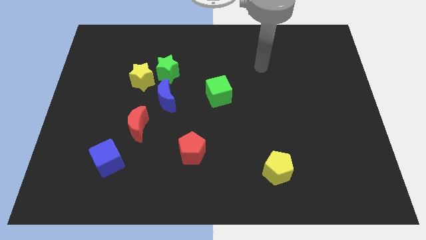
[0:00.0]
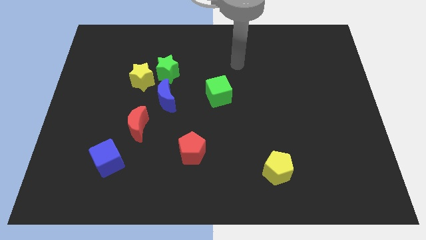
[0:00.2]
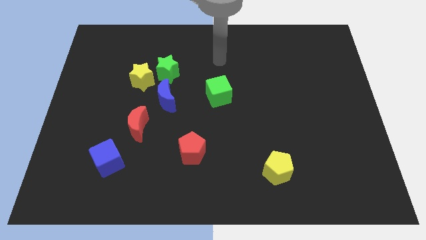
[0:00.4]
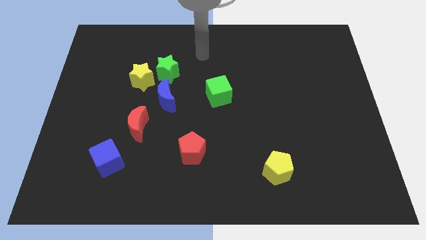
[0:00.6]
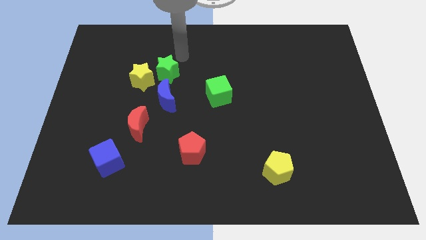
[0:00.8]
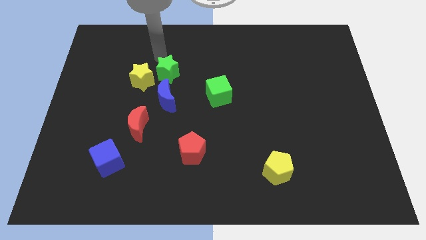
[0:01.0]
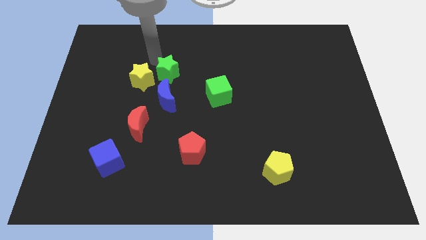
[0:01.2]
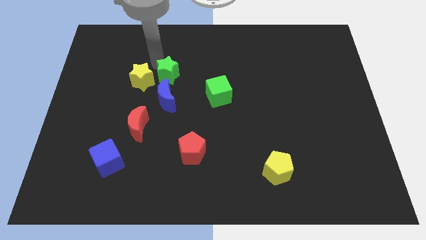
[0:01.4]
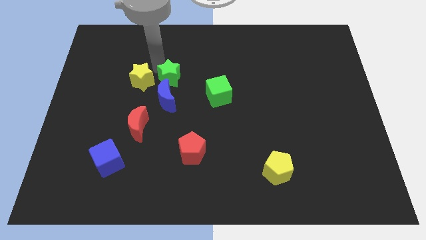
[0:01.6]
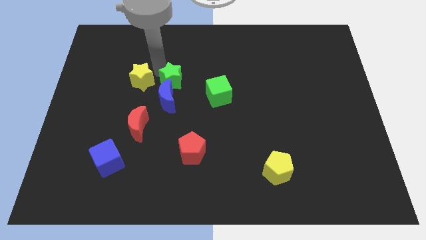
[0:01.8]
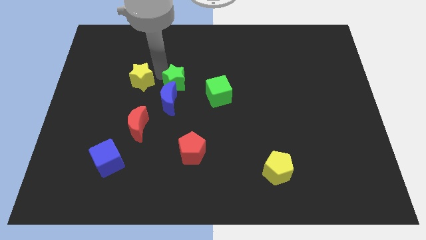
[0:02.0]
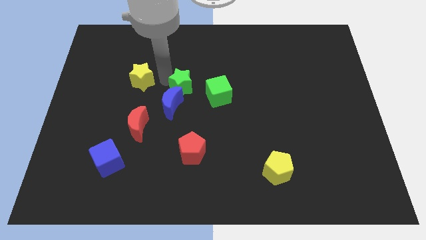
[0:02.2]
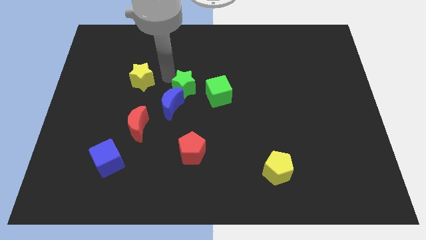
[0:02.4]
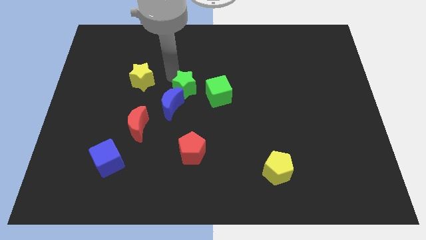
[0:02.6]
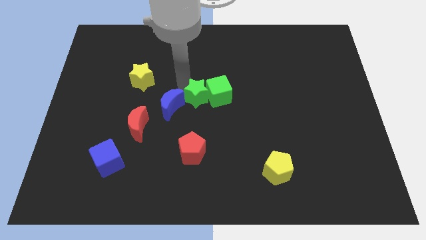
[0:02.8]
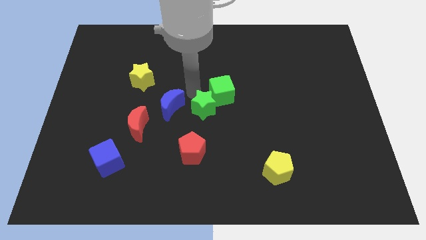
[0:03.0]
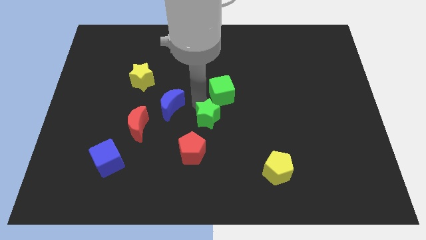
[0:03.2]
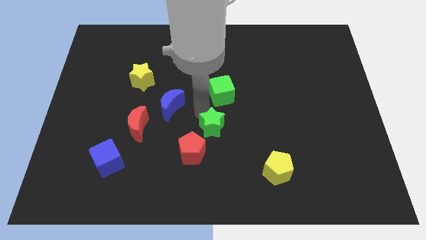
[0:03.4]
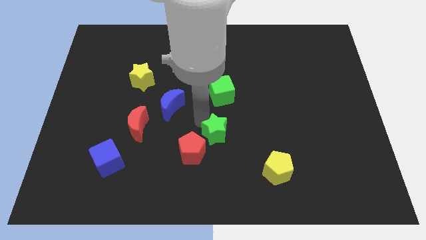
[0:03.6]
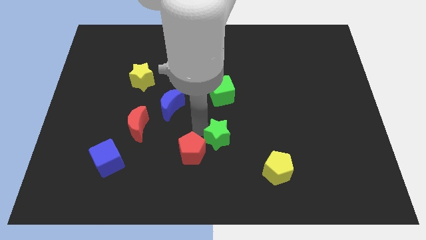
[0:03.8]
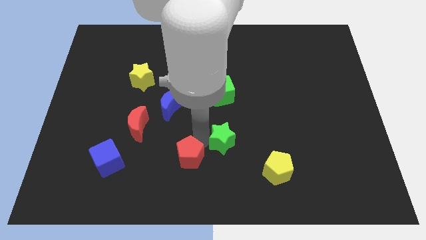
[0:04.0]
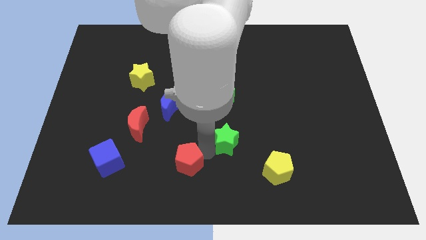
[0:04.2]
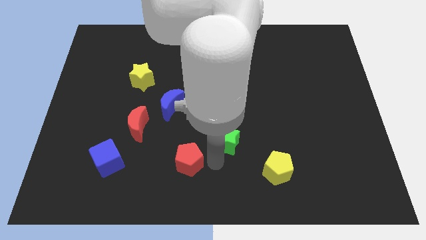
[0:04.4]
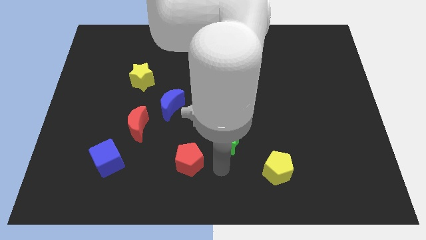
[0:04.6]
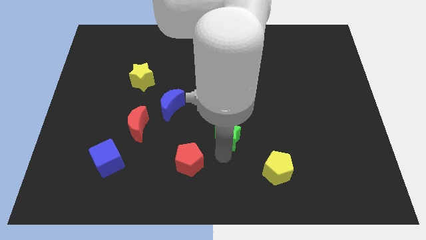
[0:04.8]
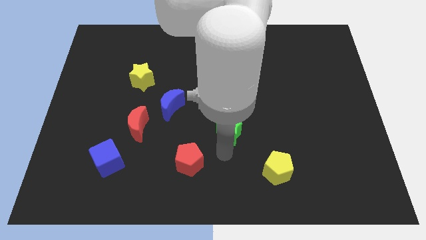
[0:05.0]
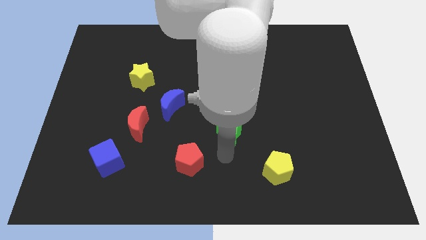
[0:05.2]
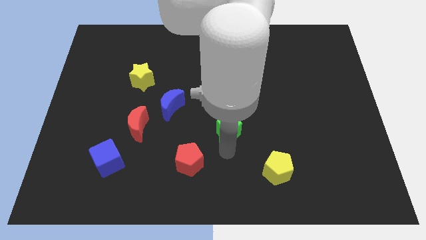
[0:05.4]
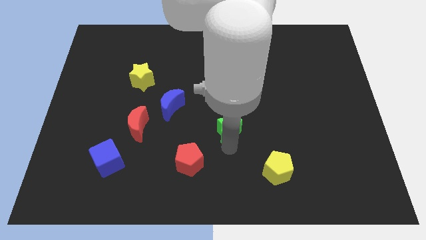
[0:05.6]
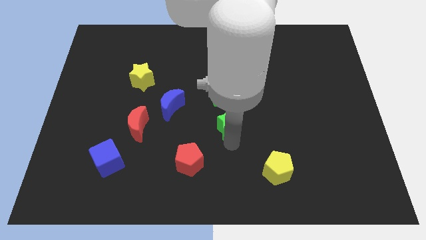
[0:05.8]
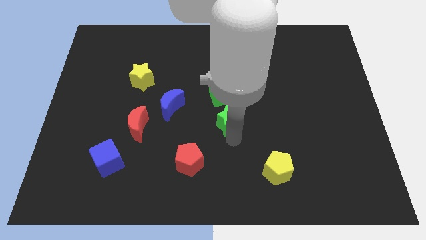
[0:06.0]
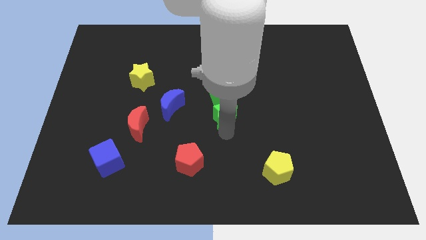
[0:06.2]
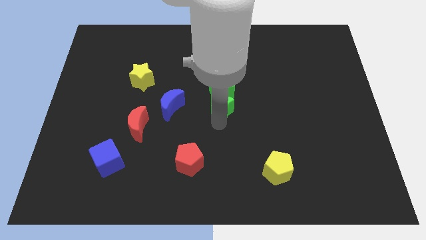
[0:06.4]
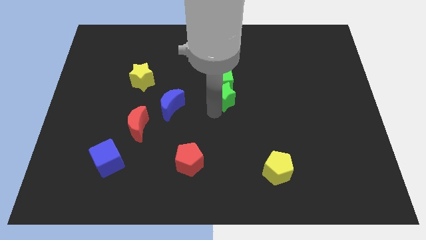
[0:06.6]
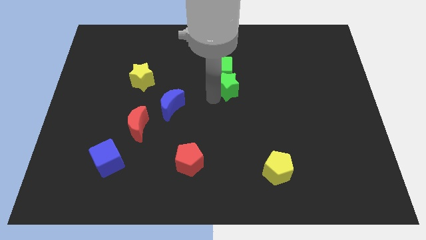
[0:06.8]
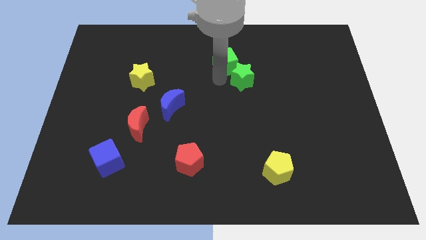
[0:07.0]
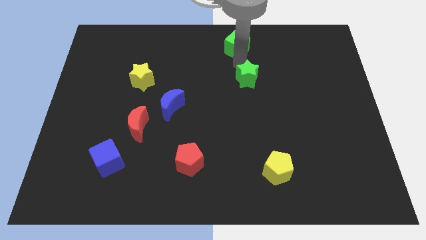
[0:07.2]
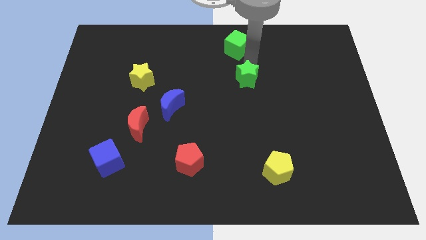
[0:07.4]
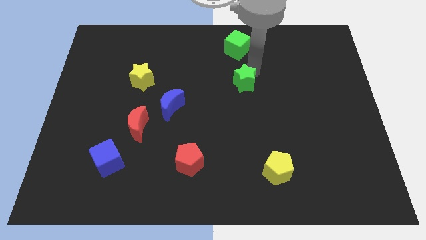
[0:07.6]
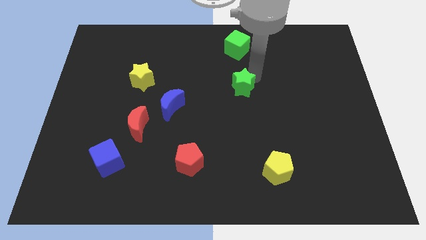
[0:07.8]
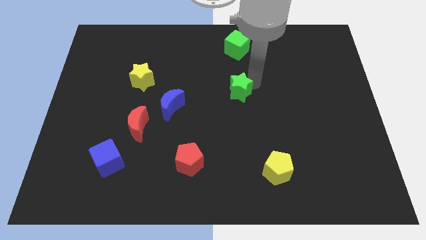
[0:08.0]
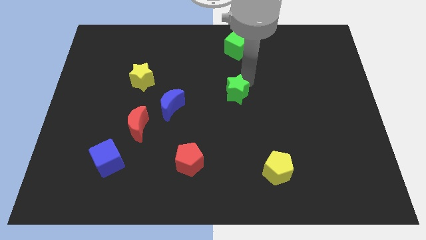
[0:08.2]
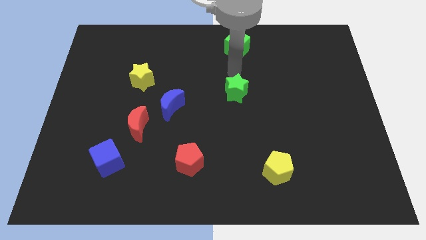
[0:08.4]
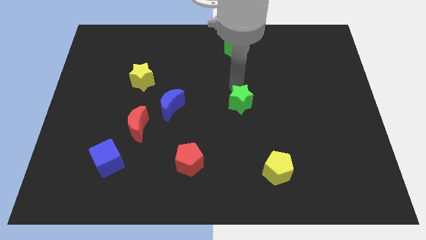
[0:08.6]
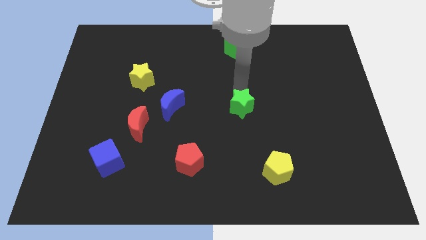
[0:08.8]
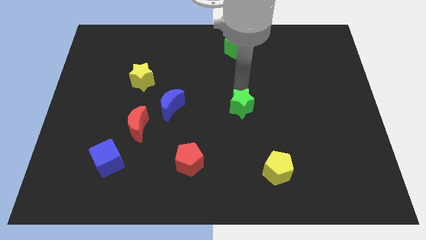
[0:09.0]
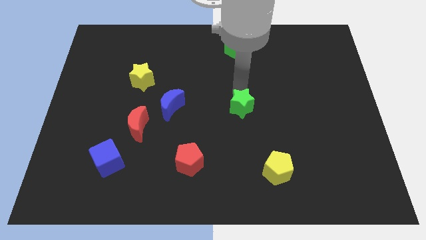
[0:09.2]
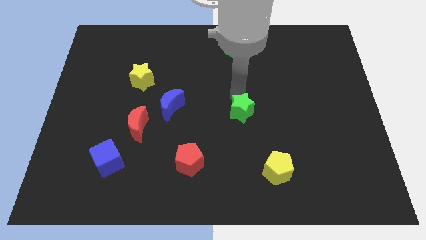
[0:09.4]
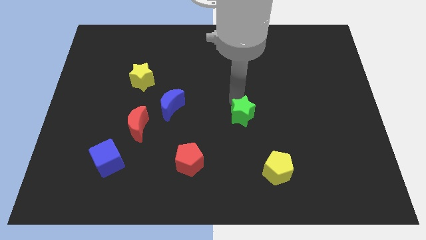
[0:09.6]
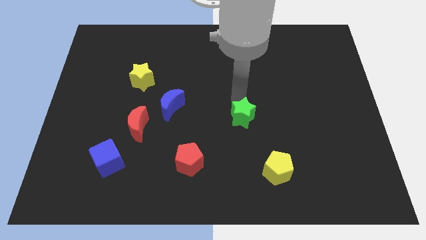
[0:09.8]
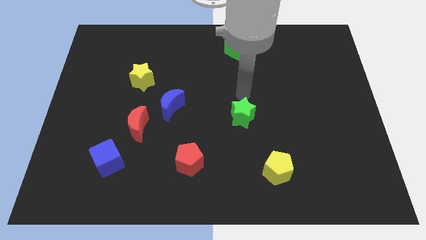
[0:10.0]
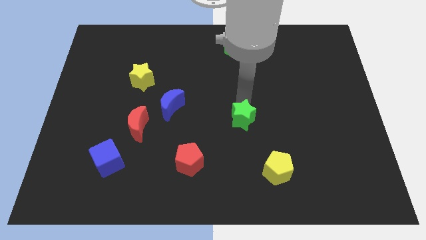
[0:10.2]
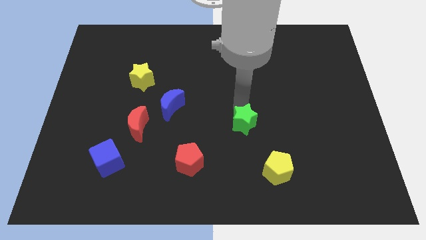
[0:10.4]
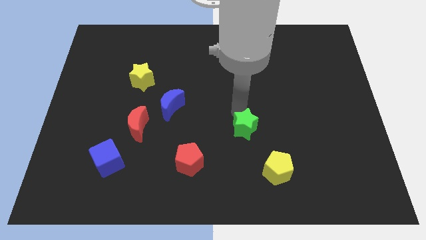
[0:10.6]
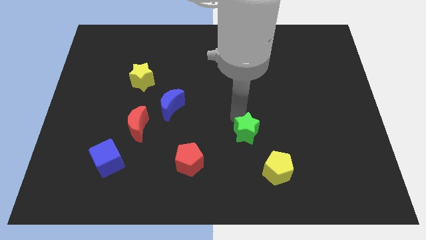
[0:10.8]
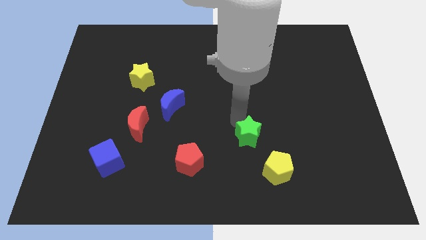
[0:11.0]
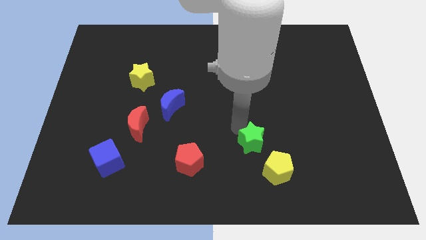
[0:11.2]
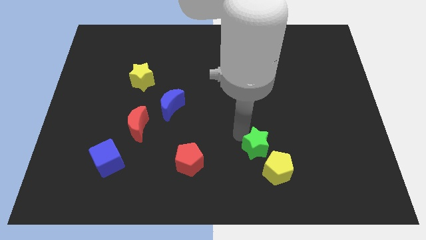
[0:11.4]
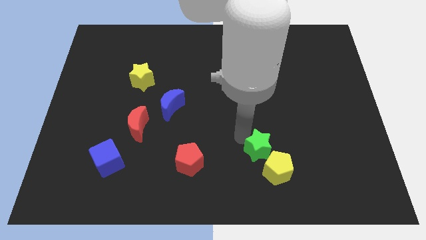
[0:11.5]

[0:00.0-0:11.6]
push the green star close to the yellow pentagon

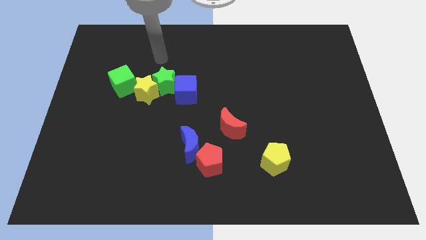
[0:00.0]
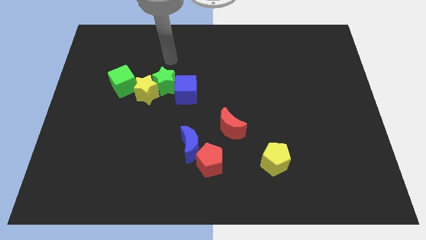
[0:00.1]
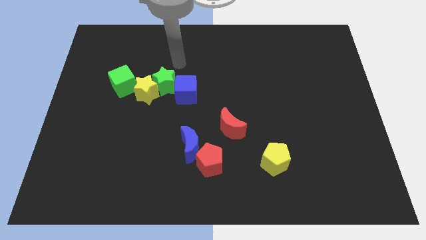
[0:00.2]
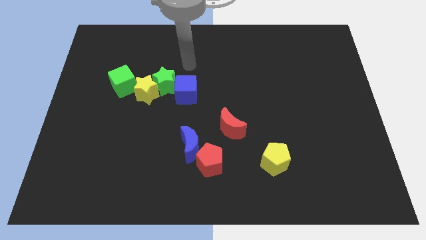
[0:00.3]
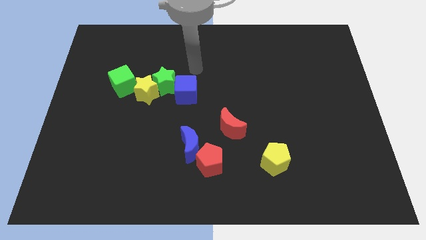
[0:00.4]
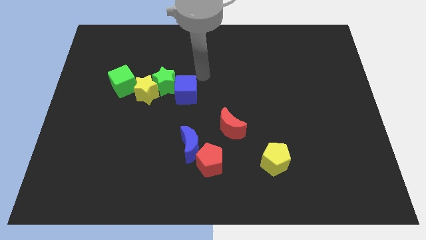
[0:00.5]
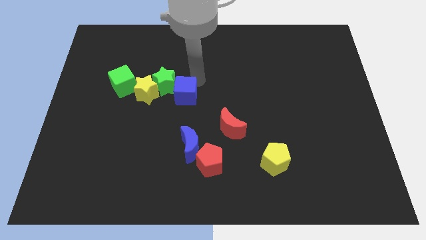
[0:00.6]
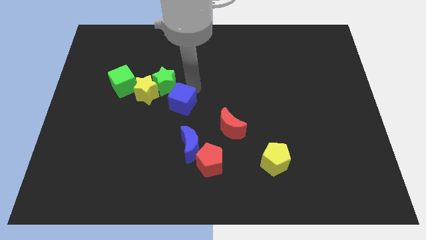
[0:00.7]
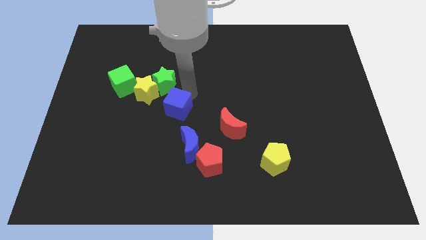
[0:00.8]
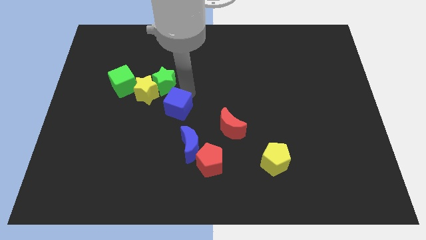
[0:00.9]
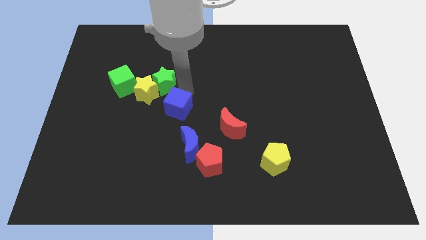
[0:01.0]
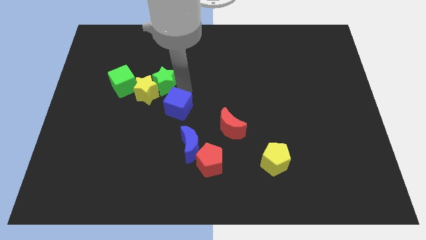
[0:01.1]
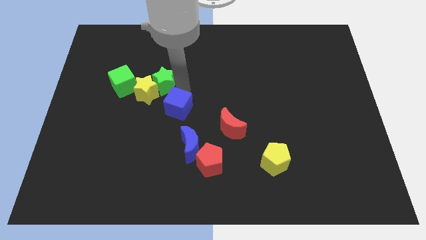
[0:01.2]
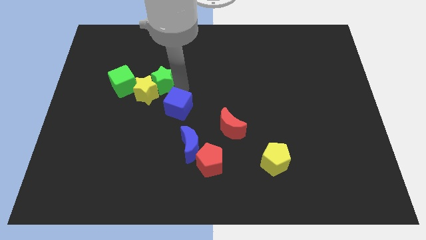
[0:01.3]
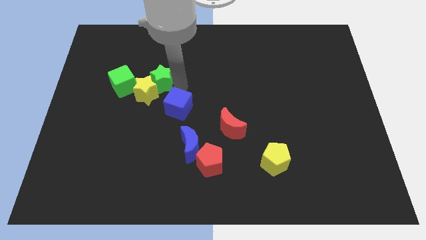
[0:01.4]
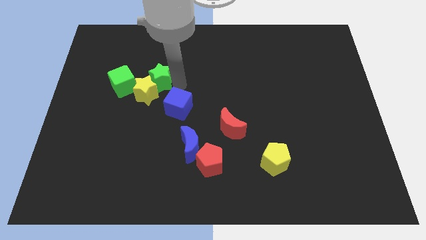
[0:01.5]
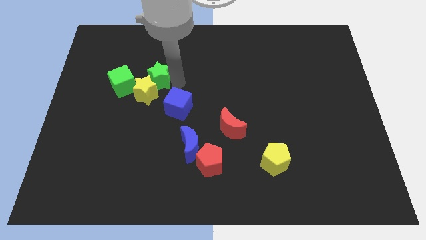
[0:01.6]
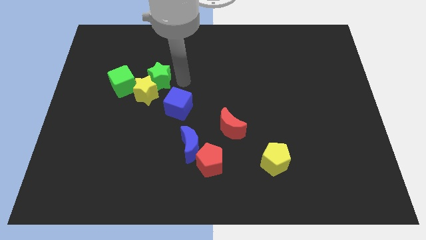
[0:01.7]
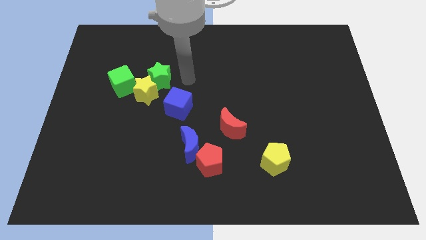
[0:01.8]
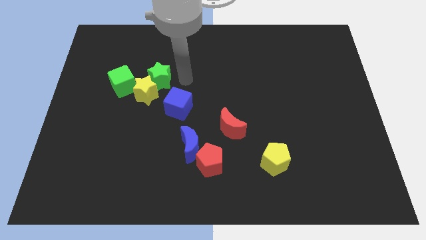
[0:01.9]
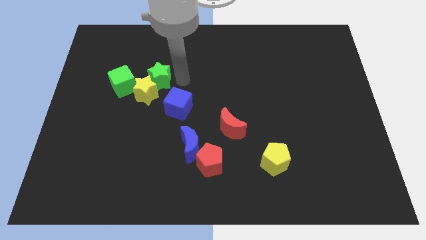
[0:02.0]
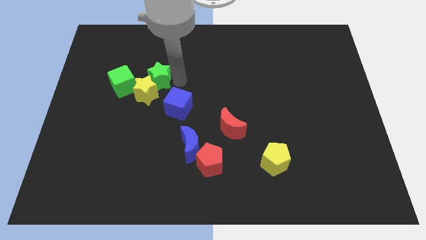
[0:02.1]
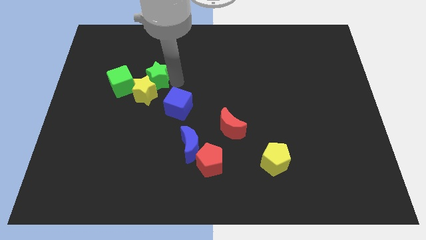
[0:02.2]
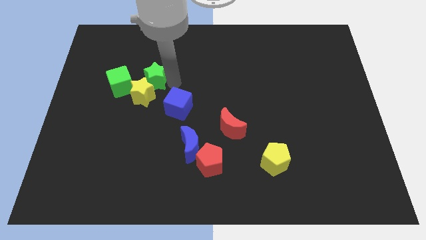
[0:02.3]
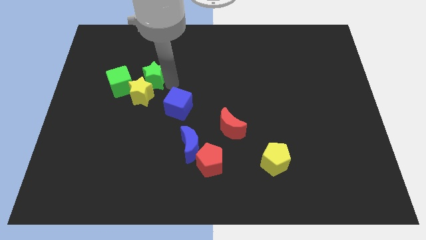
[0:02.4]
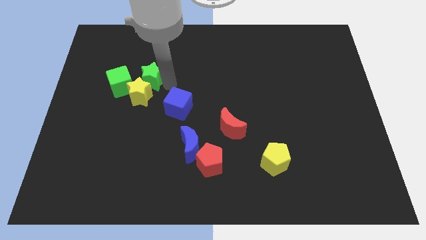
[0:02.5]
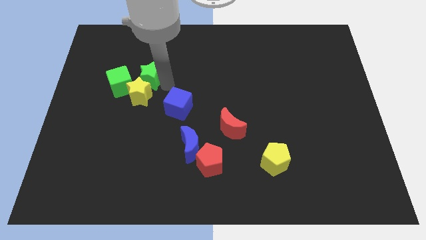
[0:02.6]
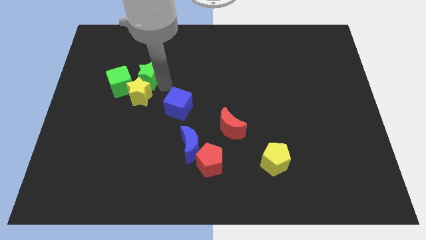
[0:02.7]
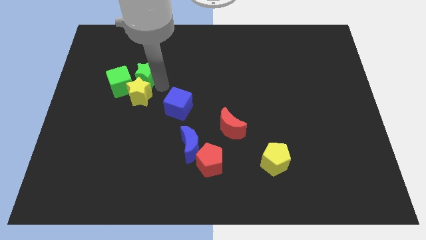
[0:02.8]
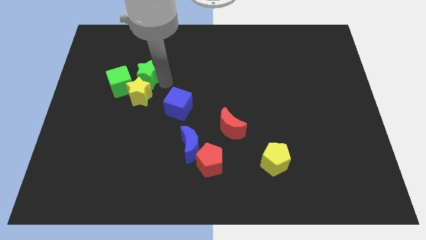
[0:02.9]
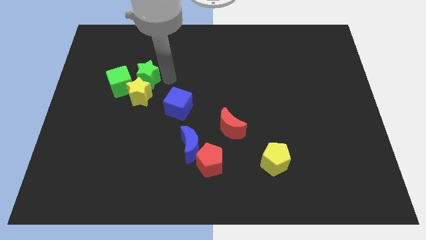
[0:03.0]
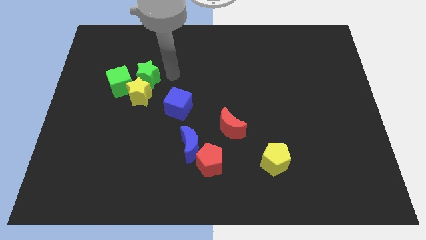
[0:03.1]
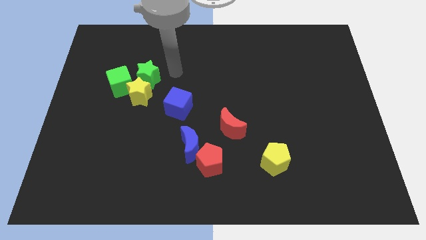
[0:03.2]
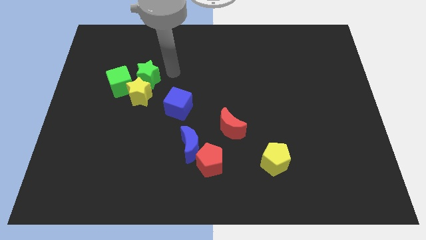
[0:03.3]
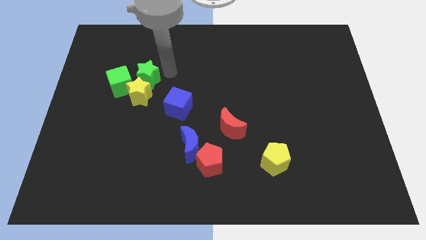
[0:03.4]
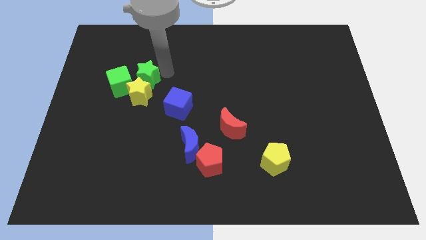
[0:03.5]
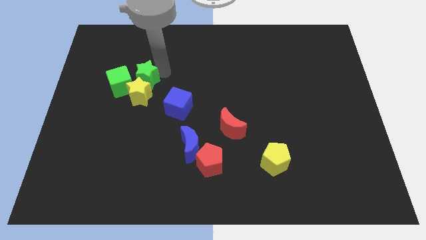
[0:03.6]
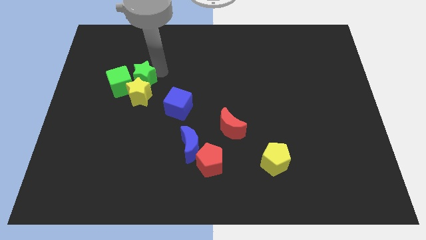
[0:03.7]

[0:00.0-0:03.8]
move the green star to the green cube
